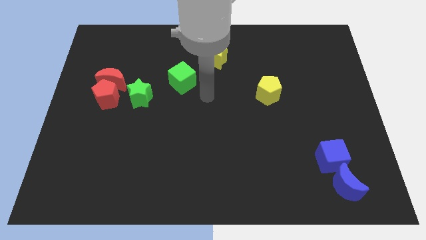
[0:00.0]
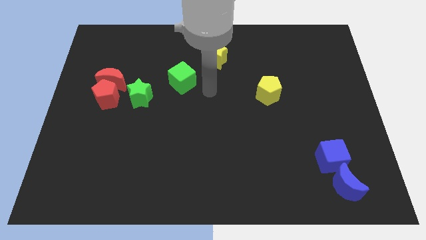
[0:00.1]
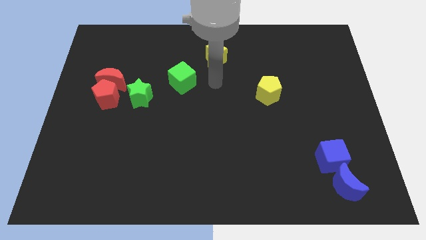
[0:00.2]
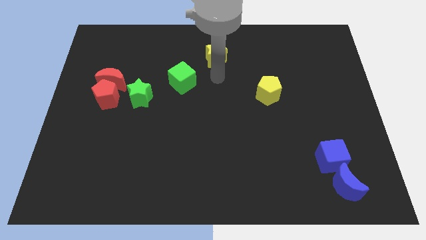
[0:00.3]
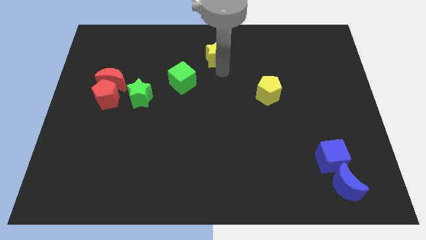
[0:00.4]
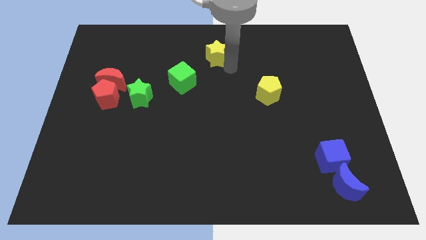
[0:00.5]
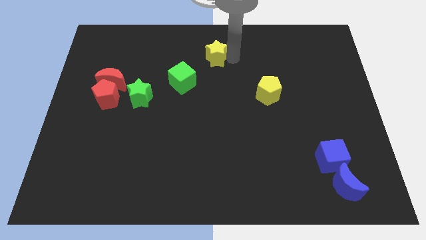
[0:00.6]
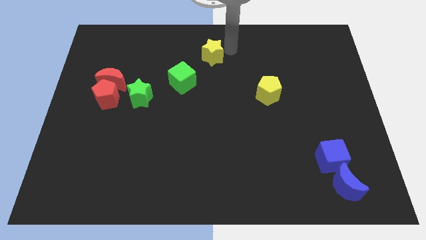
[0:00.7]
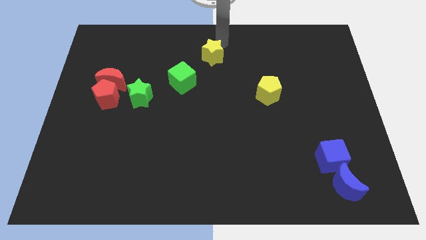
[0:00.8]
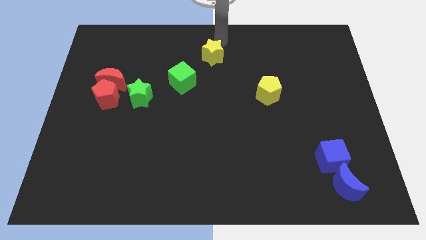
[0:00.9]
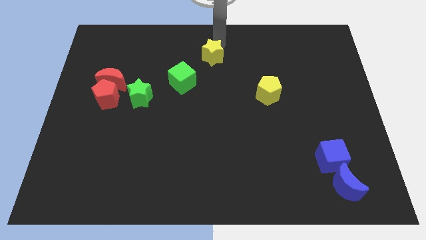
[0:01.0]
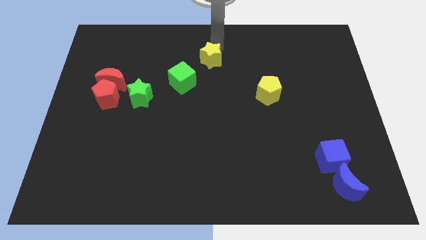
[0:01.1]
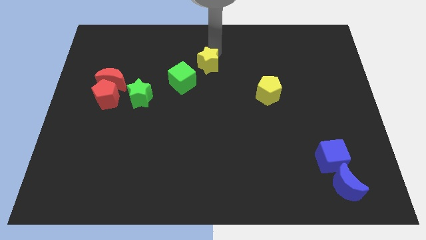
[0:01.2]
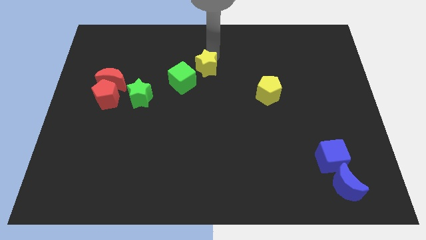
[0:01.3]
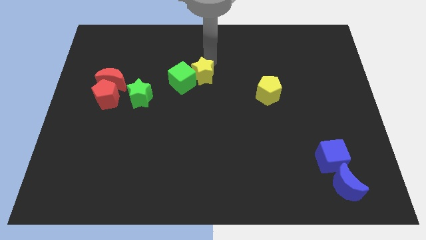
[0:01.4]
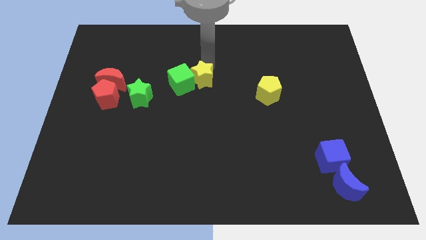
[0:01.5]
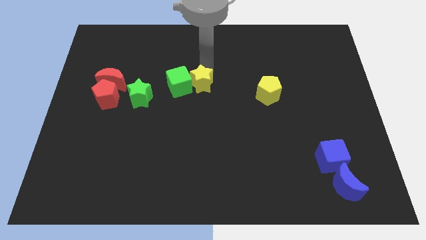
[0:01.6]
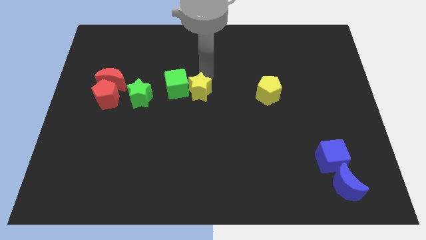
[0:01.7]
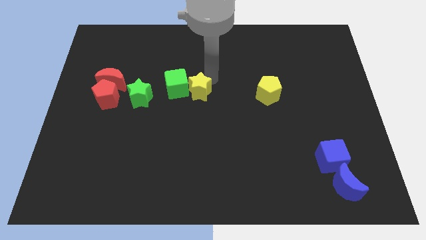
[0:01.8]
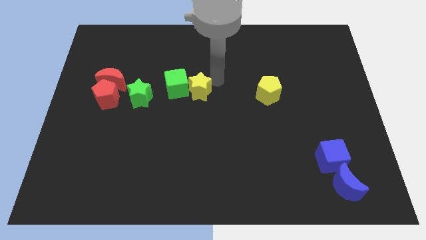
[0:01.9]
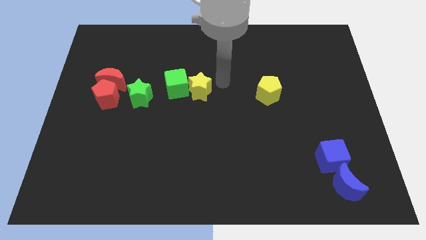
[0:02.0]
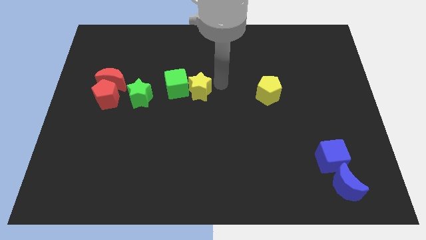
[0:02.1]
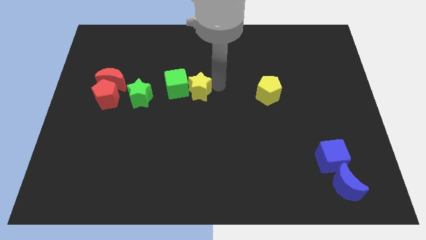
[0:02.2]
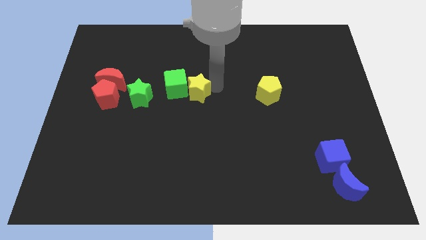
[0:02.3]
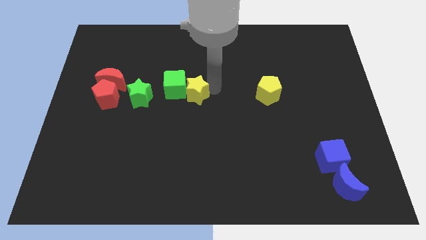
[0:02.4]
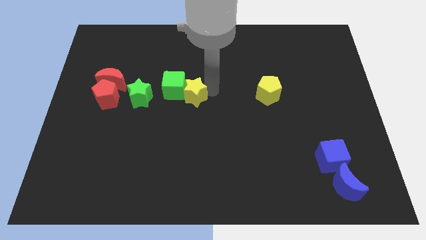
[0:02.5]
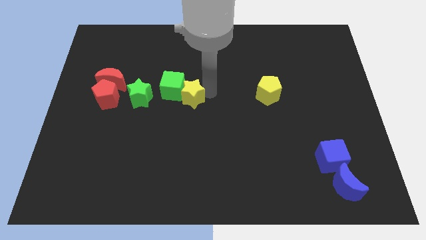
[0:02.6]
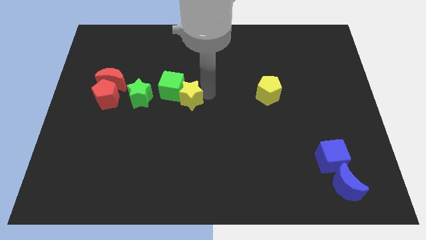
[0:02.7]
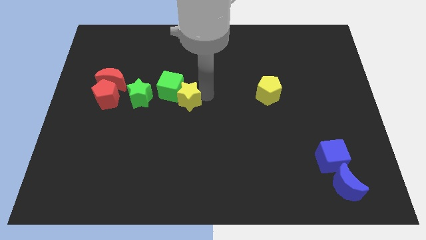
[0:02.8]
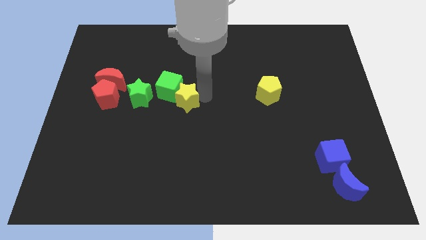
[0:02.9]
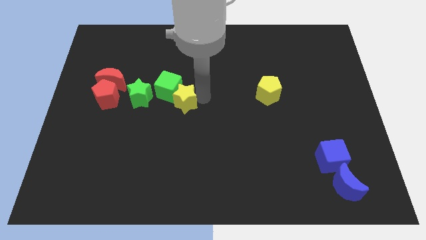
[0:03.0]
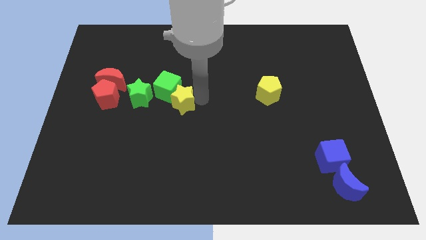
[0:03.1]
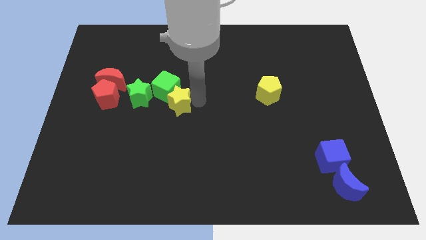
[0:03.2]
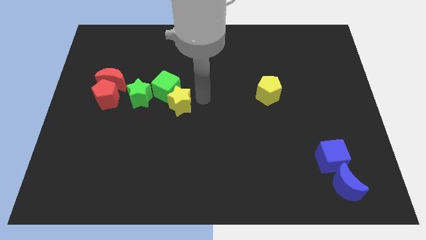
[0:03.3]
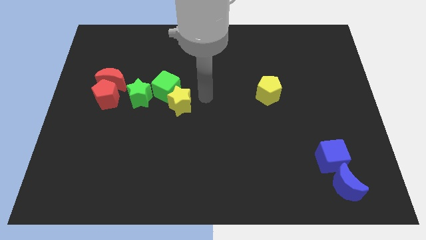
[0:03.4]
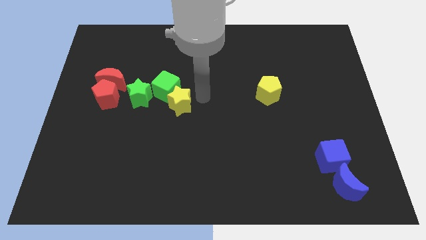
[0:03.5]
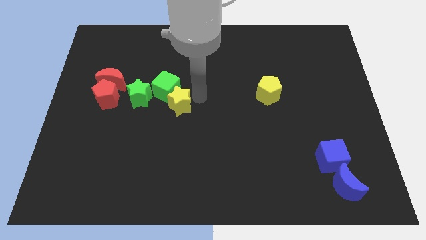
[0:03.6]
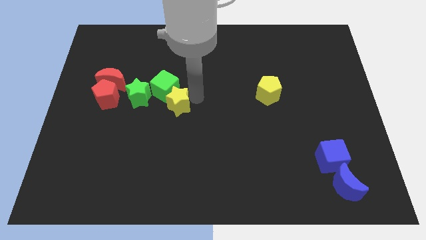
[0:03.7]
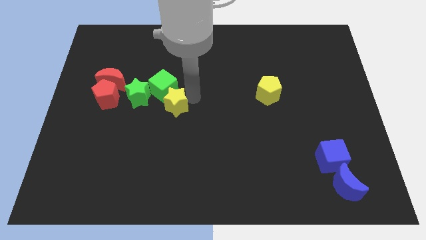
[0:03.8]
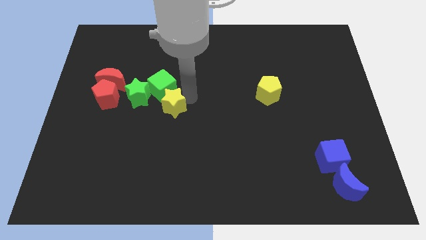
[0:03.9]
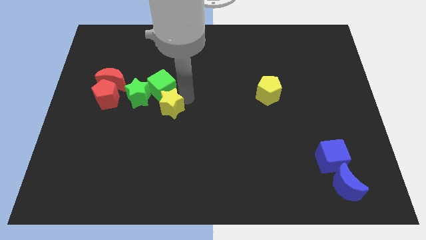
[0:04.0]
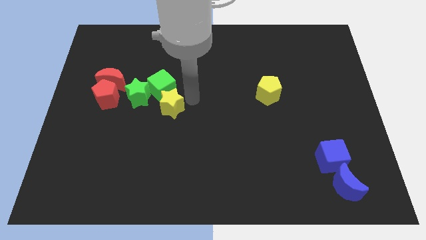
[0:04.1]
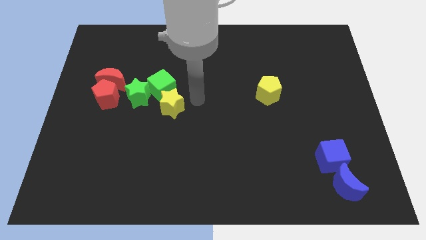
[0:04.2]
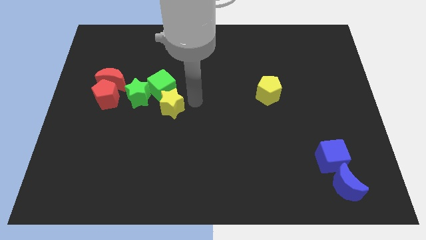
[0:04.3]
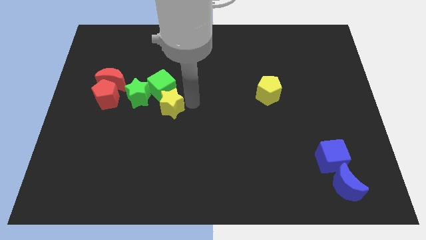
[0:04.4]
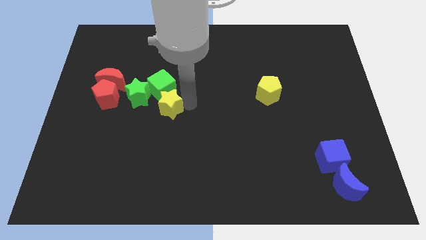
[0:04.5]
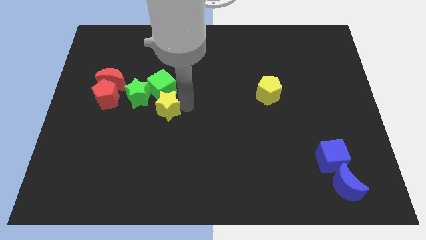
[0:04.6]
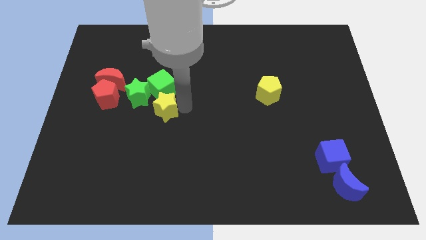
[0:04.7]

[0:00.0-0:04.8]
slide the yellow star diagonally down and to the left

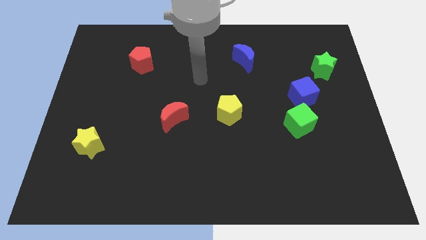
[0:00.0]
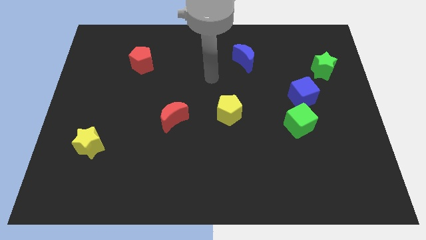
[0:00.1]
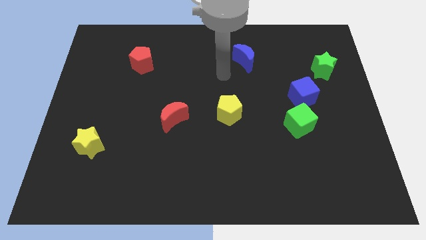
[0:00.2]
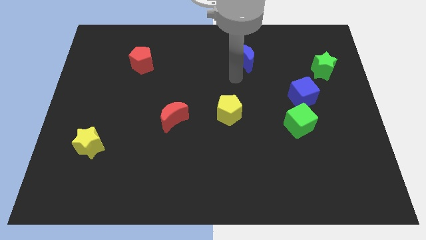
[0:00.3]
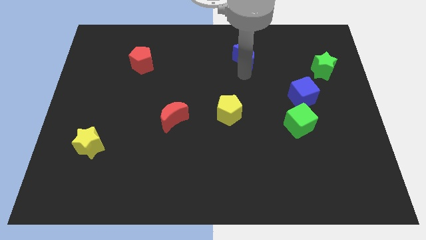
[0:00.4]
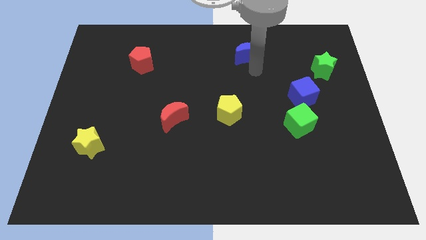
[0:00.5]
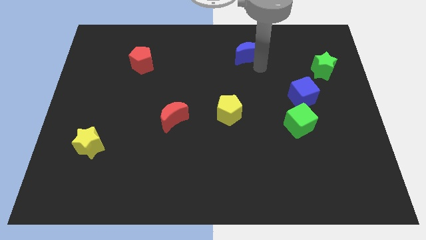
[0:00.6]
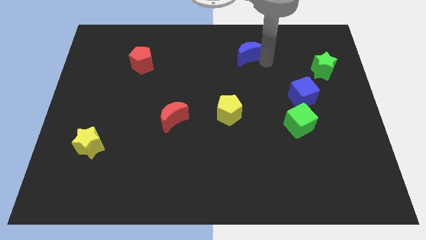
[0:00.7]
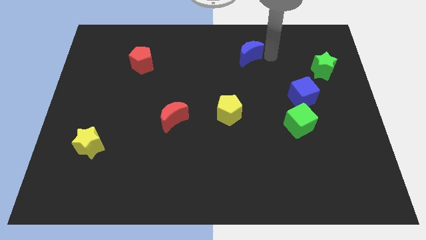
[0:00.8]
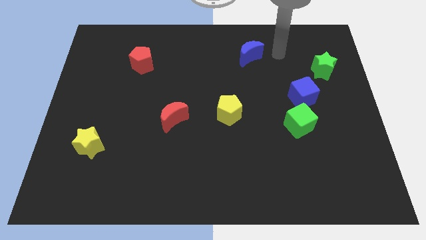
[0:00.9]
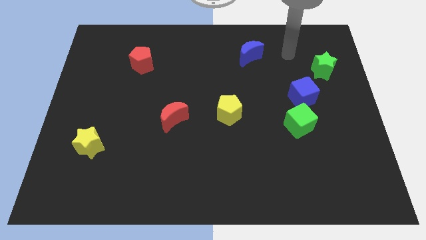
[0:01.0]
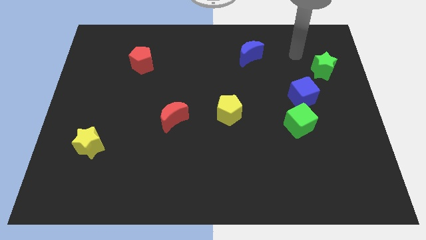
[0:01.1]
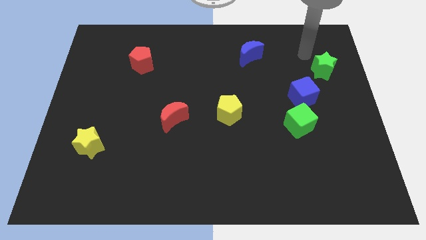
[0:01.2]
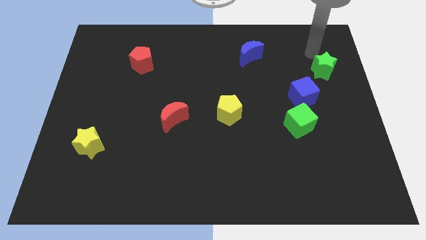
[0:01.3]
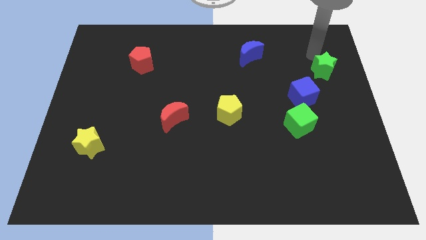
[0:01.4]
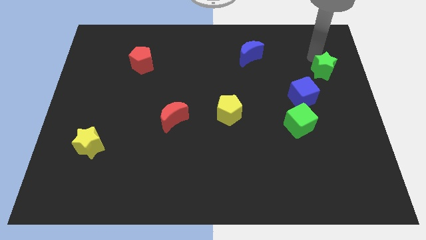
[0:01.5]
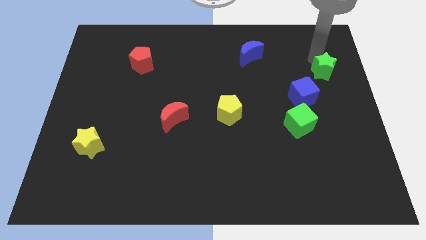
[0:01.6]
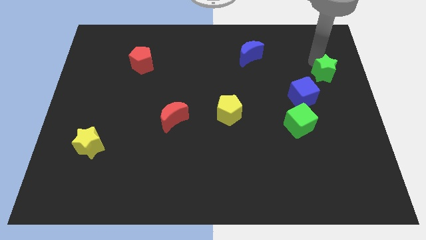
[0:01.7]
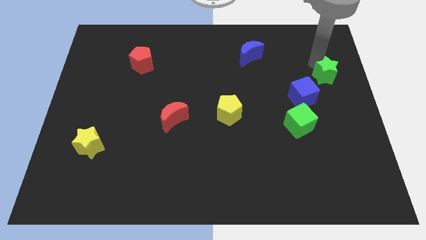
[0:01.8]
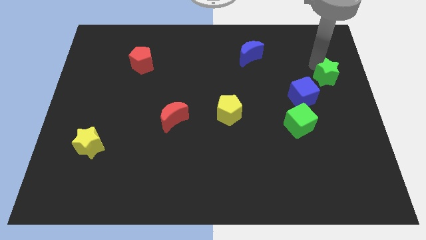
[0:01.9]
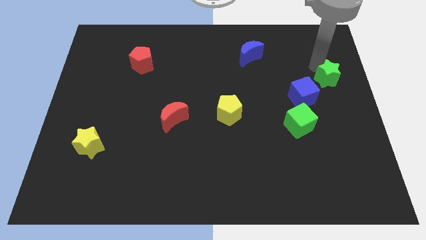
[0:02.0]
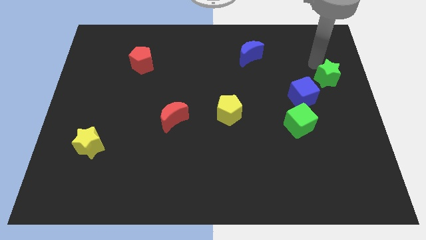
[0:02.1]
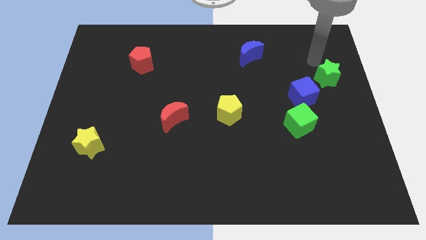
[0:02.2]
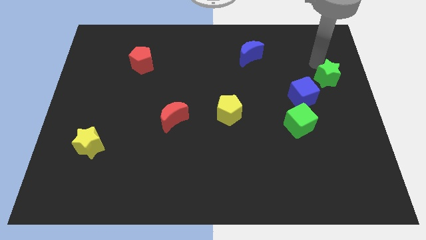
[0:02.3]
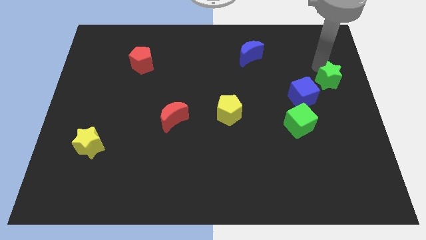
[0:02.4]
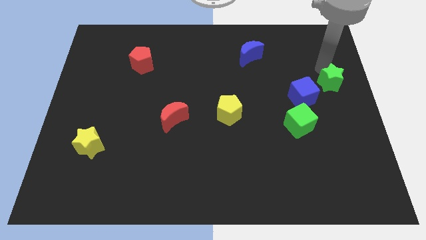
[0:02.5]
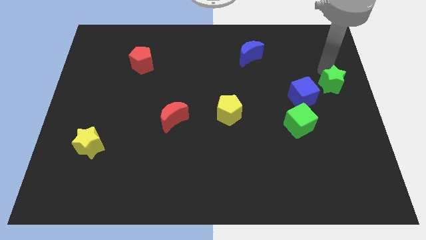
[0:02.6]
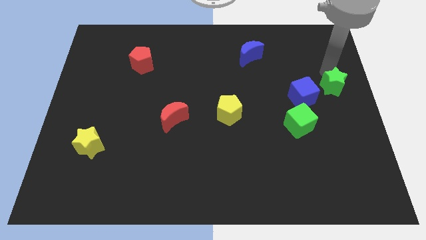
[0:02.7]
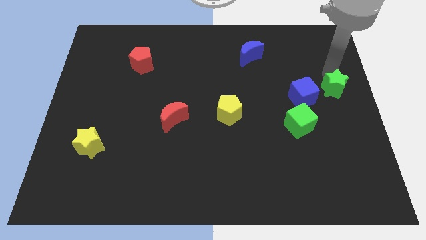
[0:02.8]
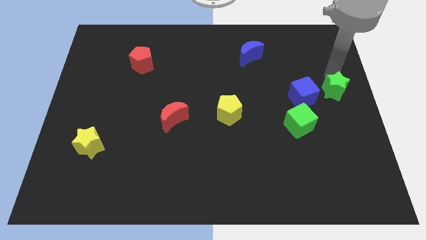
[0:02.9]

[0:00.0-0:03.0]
move the green star a bit down
